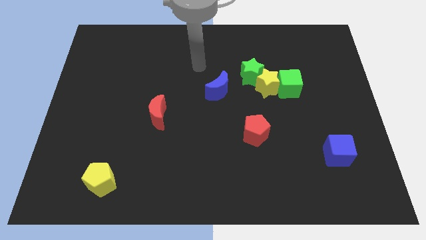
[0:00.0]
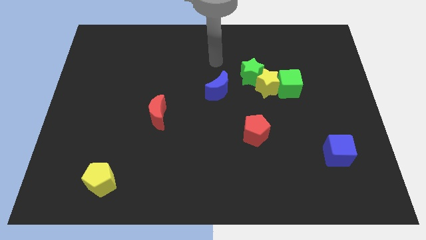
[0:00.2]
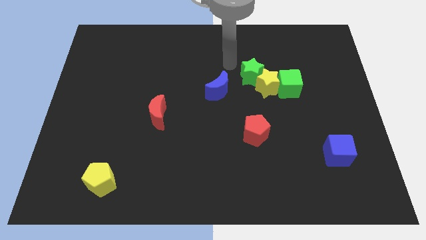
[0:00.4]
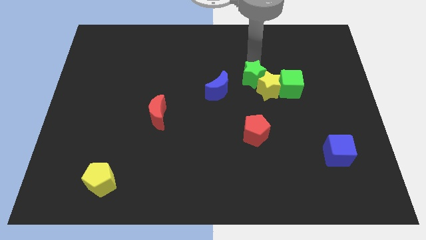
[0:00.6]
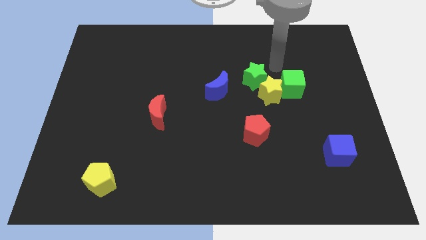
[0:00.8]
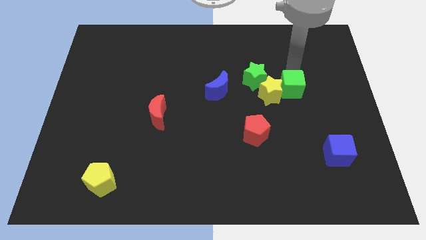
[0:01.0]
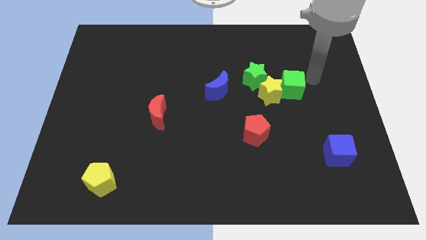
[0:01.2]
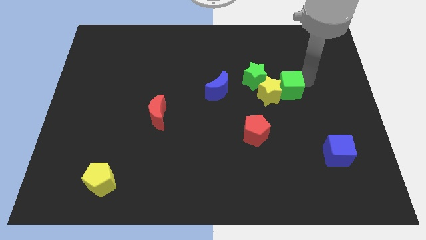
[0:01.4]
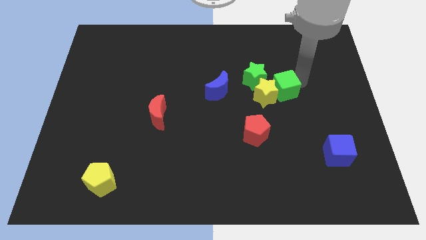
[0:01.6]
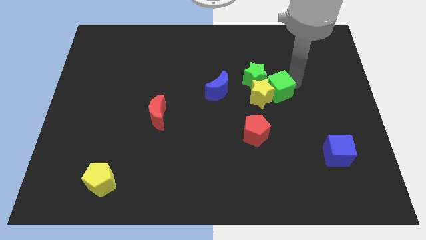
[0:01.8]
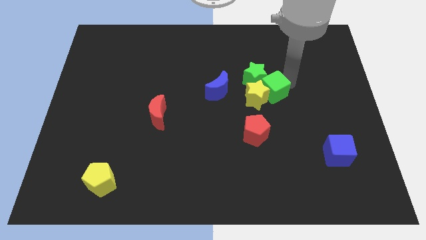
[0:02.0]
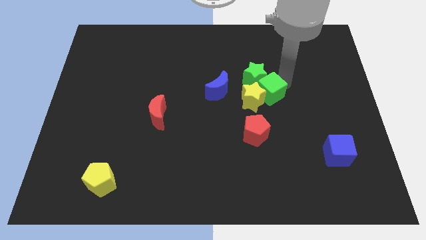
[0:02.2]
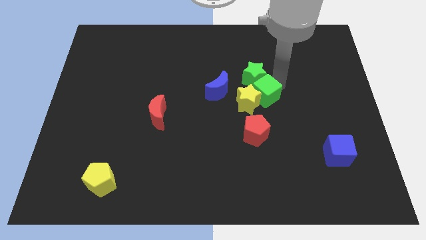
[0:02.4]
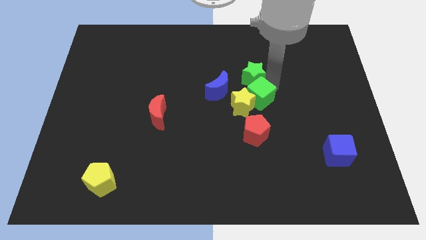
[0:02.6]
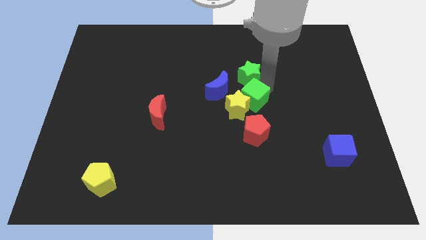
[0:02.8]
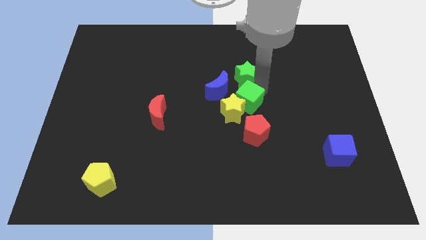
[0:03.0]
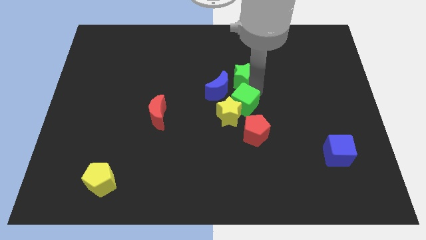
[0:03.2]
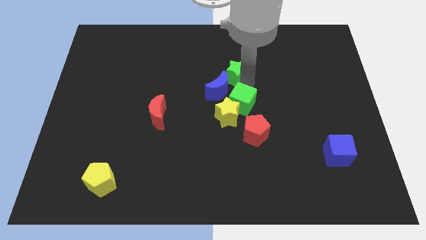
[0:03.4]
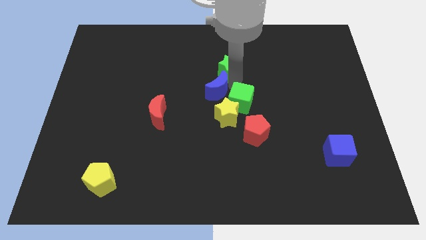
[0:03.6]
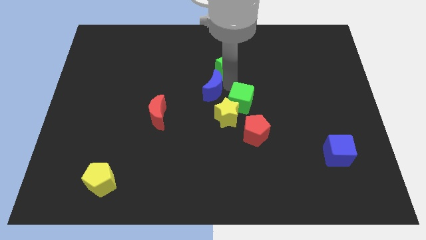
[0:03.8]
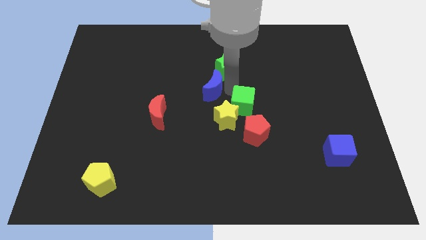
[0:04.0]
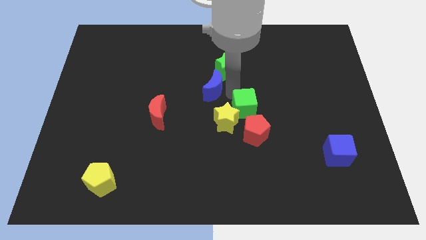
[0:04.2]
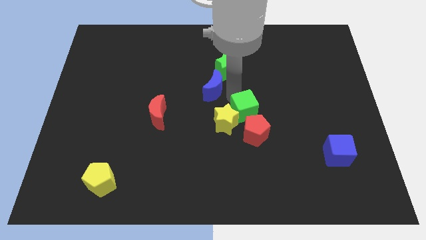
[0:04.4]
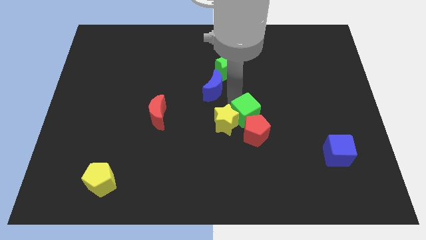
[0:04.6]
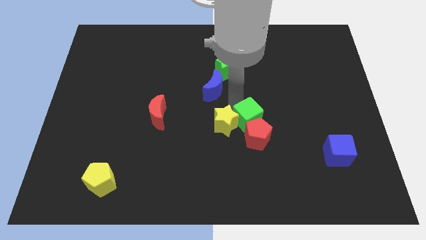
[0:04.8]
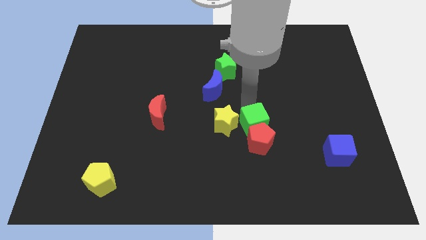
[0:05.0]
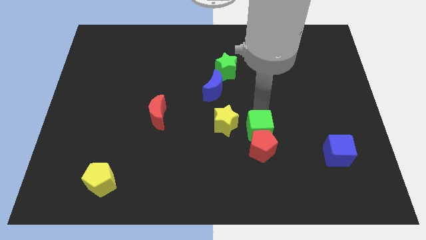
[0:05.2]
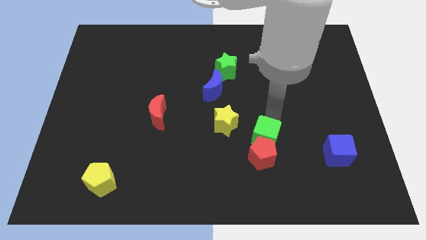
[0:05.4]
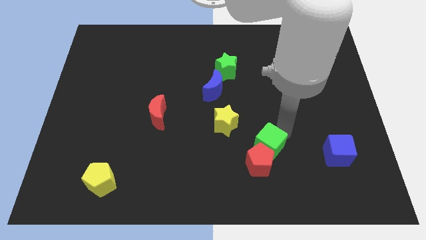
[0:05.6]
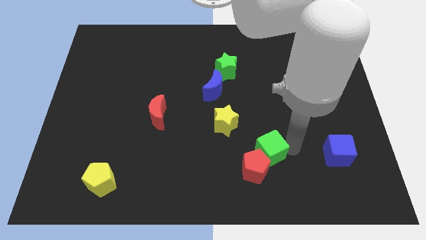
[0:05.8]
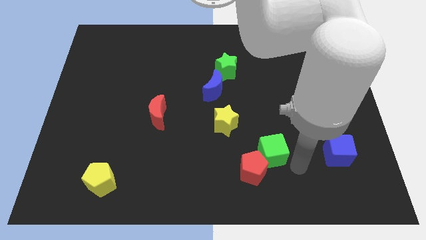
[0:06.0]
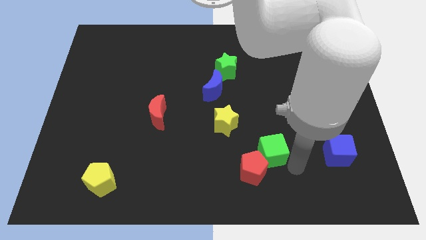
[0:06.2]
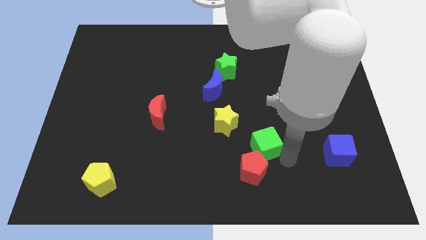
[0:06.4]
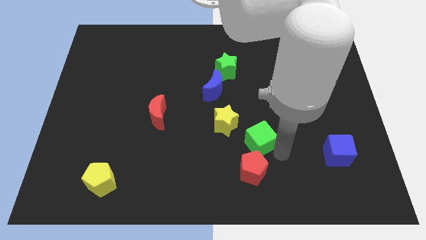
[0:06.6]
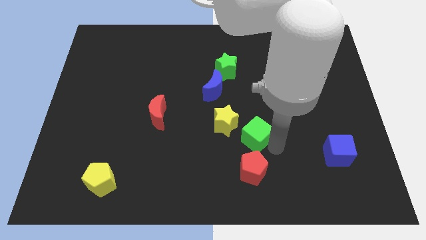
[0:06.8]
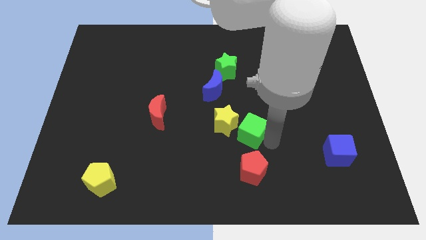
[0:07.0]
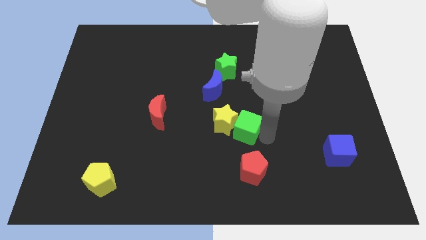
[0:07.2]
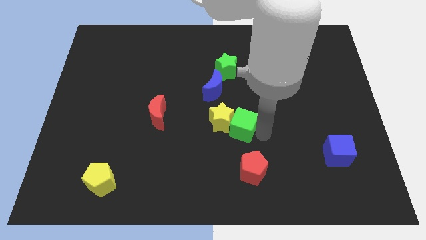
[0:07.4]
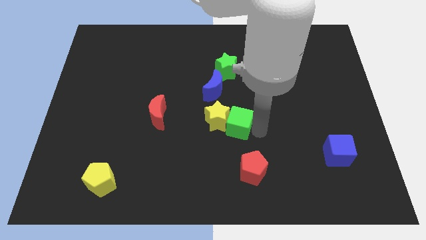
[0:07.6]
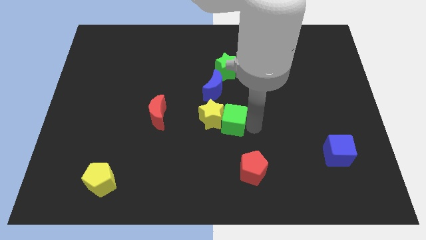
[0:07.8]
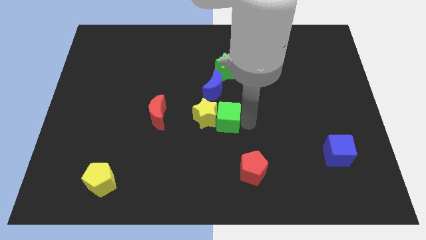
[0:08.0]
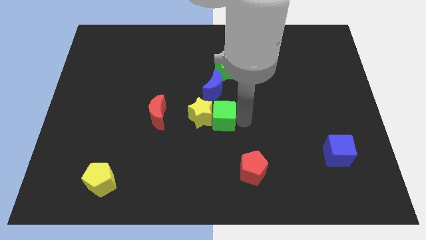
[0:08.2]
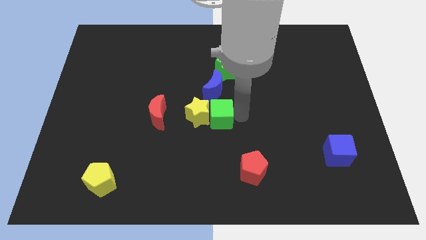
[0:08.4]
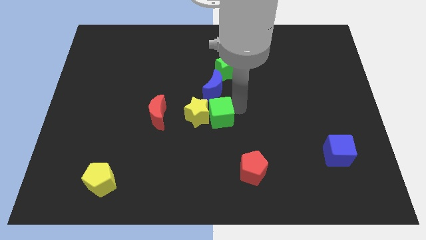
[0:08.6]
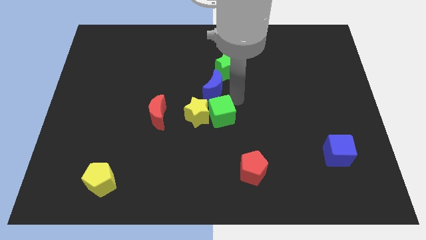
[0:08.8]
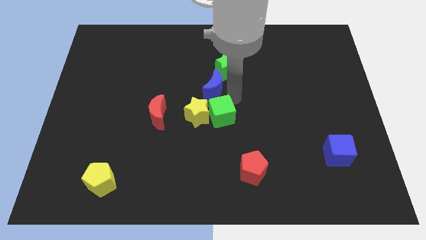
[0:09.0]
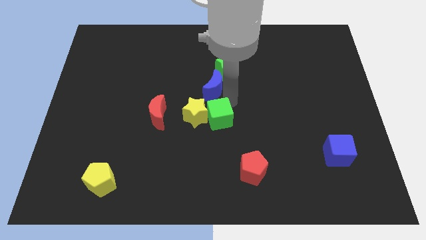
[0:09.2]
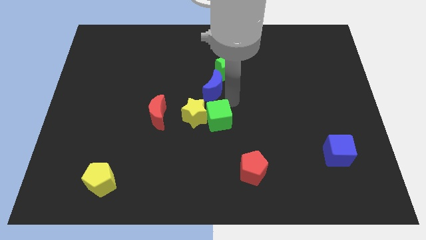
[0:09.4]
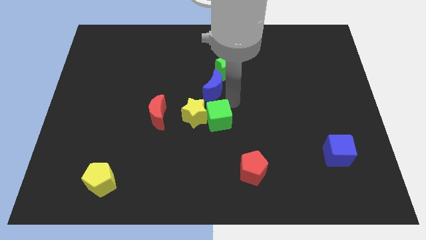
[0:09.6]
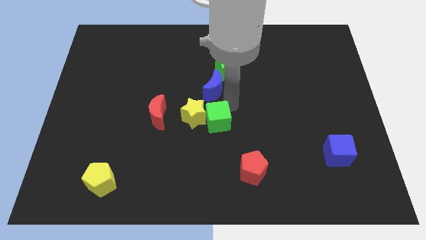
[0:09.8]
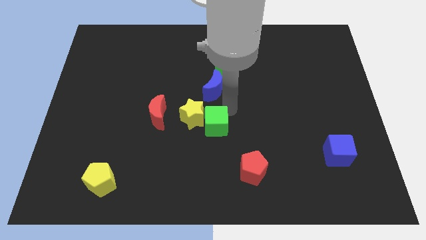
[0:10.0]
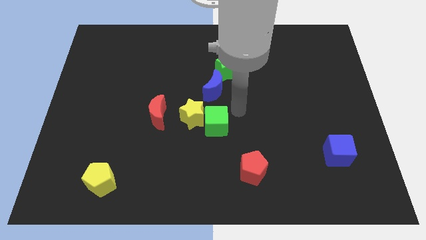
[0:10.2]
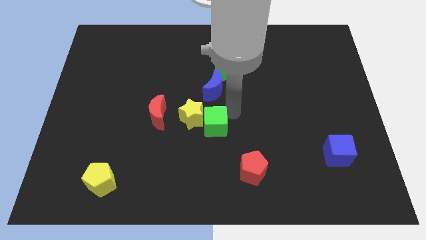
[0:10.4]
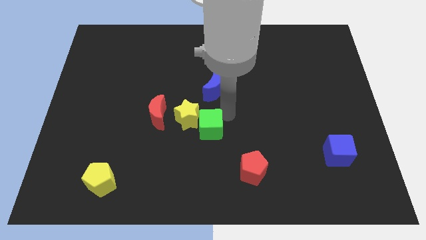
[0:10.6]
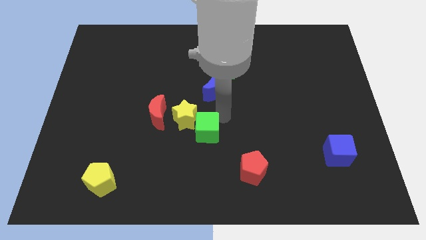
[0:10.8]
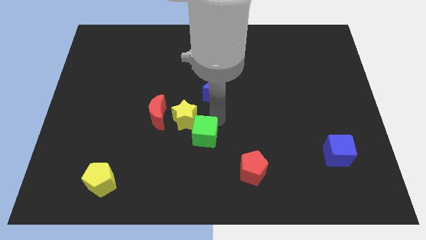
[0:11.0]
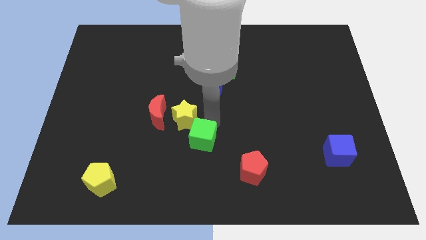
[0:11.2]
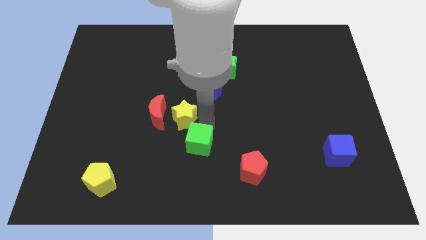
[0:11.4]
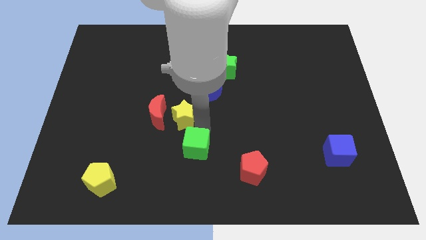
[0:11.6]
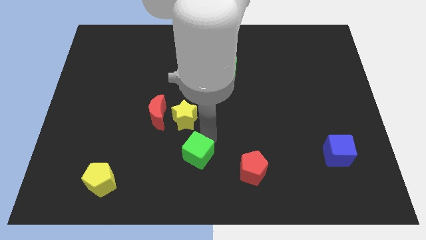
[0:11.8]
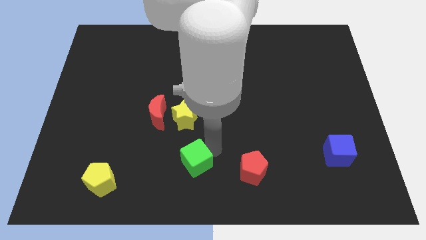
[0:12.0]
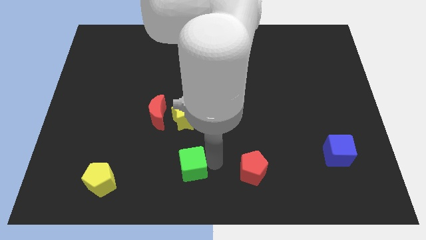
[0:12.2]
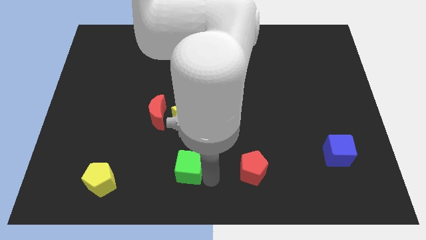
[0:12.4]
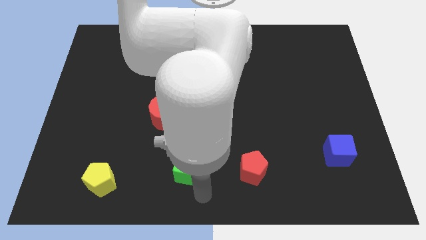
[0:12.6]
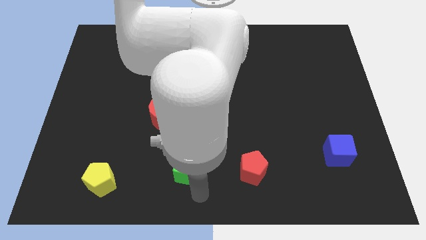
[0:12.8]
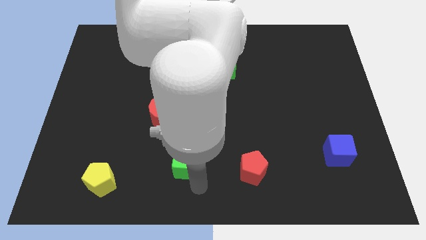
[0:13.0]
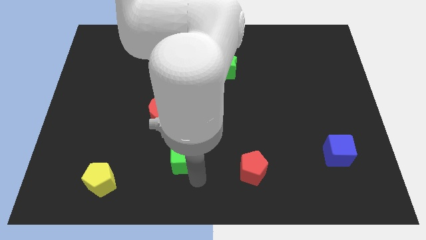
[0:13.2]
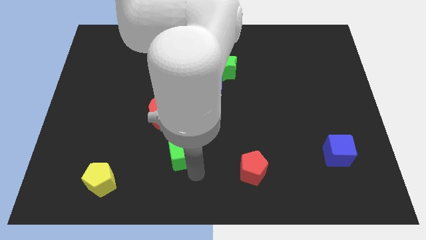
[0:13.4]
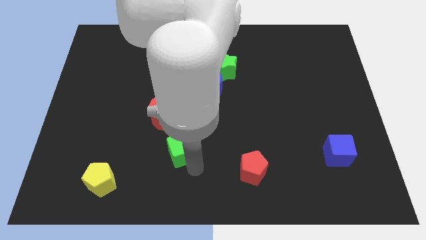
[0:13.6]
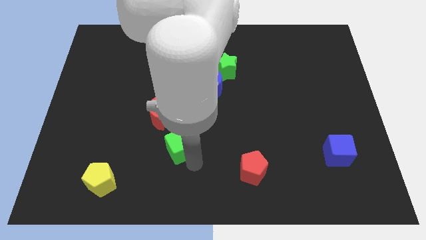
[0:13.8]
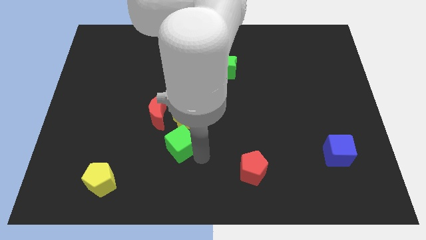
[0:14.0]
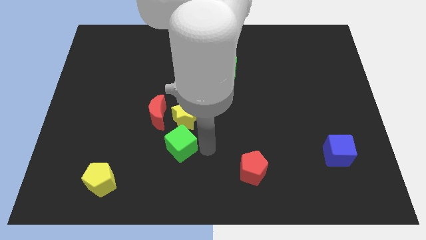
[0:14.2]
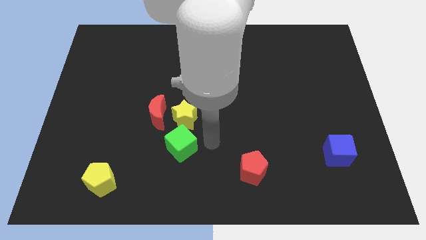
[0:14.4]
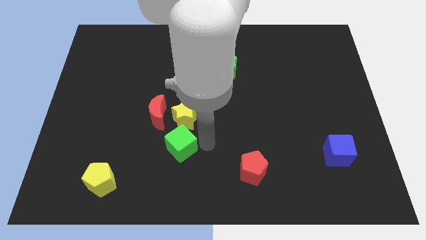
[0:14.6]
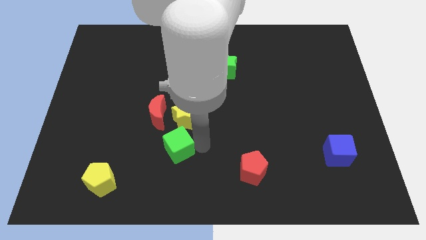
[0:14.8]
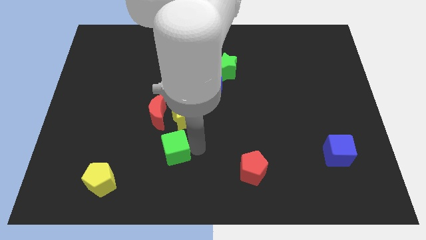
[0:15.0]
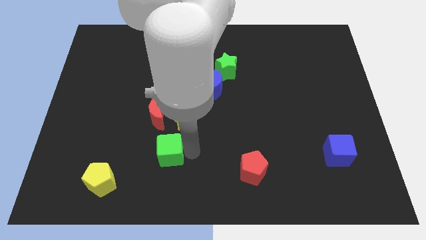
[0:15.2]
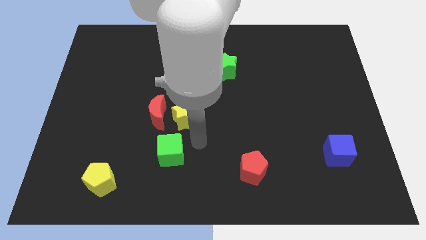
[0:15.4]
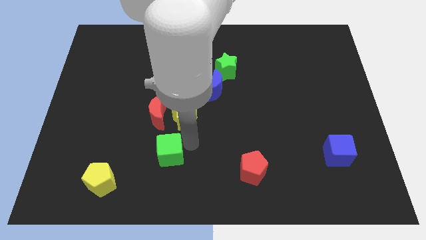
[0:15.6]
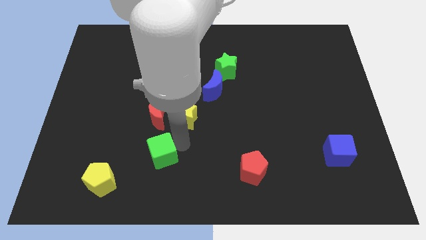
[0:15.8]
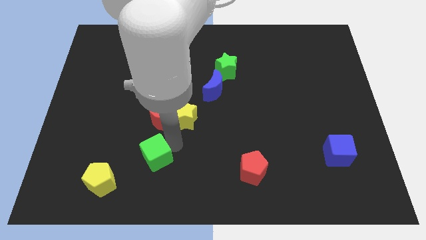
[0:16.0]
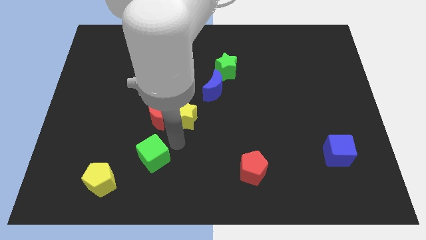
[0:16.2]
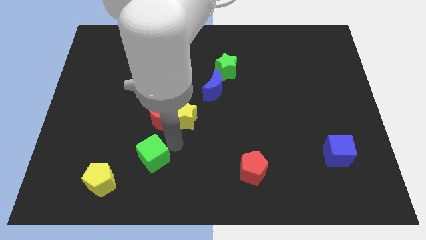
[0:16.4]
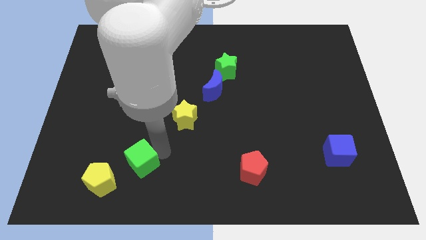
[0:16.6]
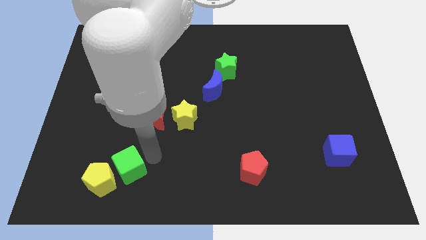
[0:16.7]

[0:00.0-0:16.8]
put the green cube to the yellow pentagon
